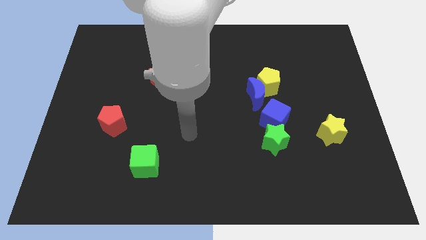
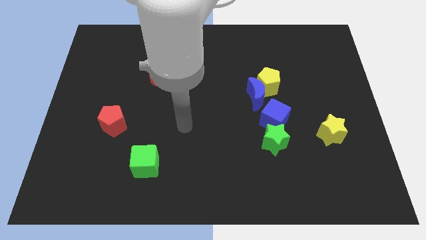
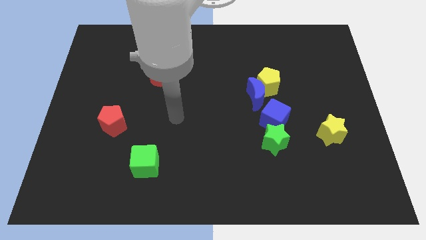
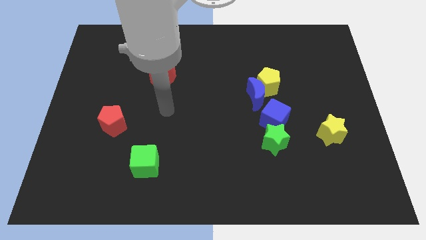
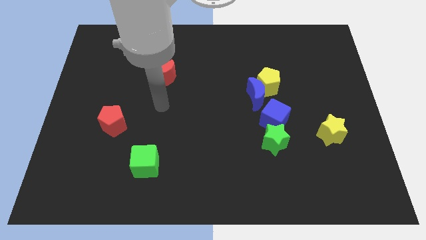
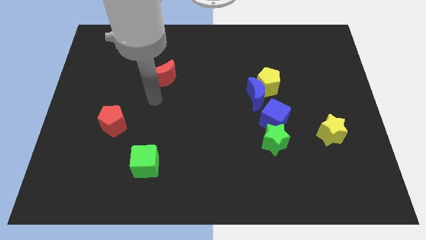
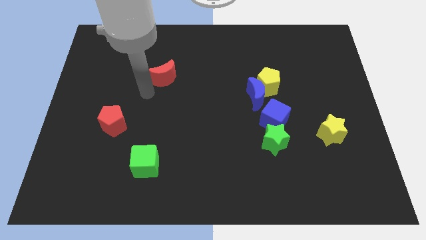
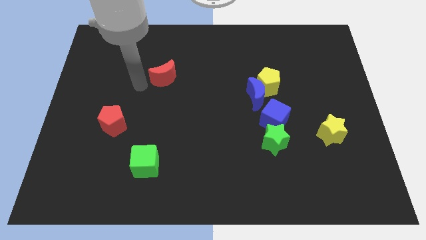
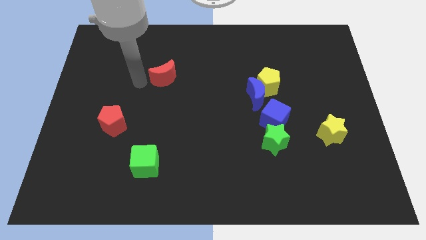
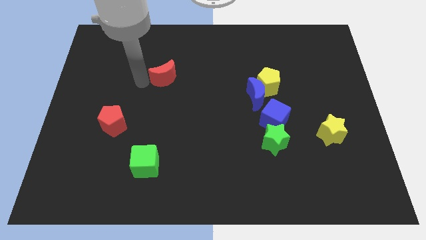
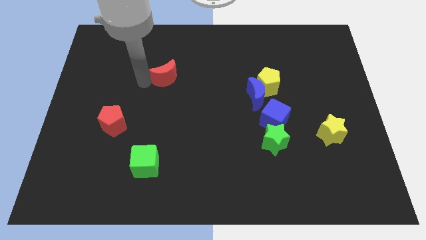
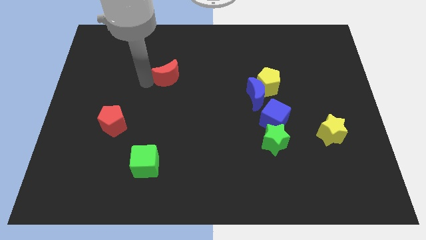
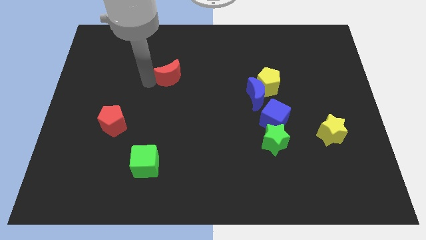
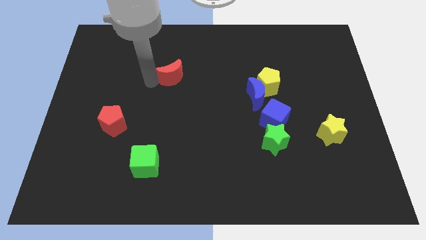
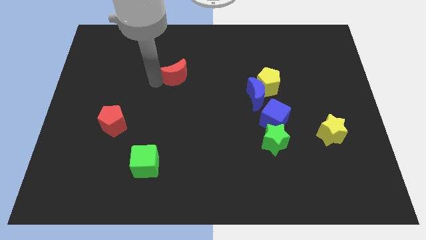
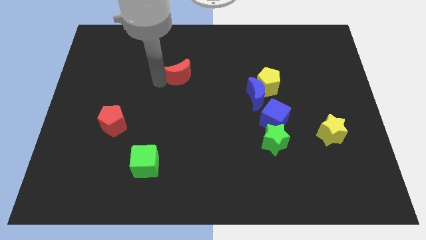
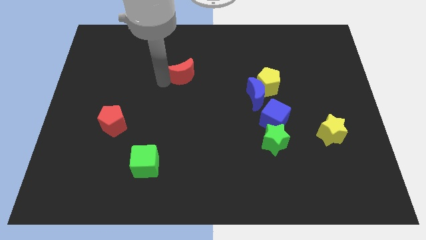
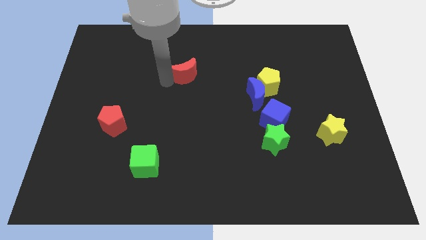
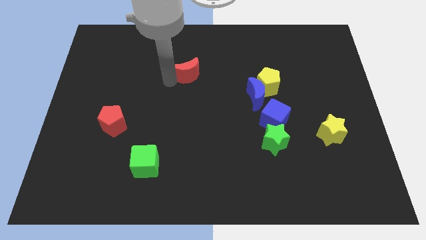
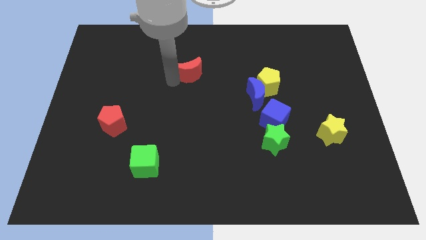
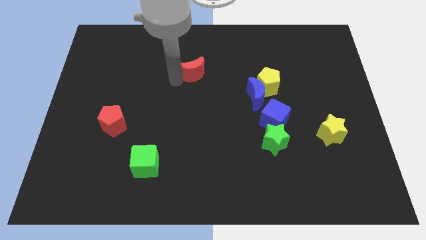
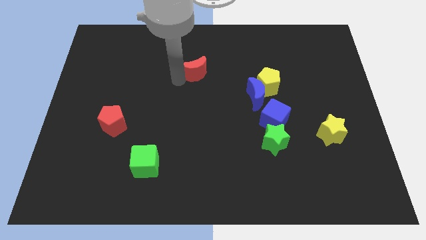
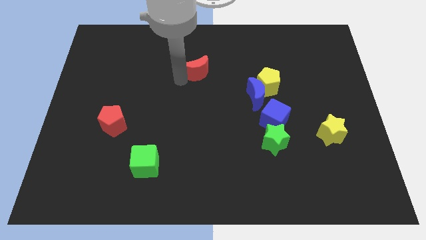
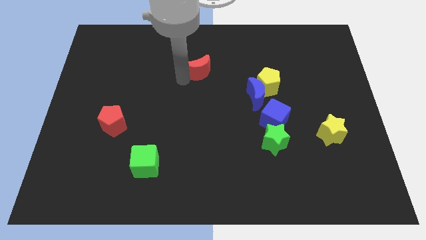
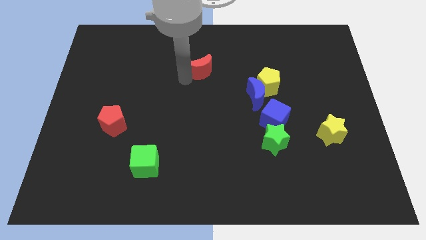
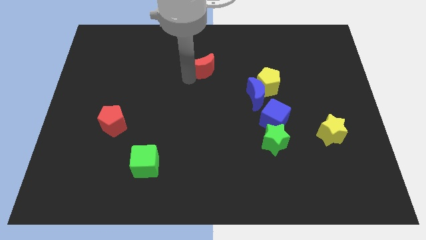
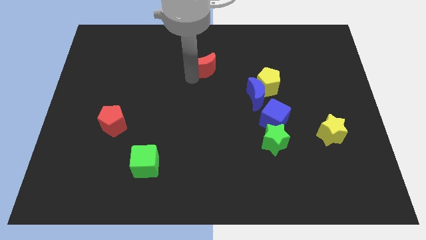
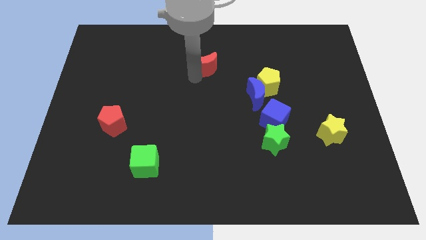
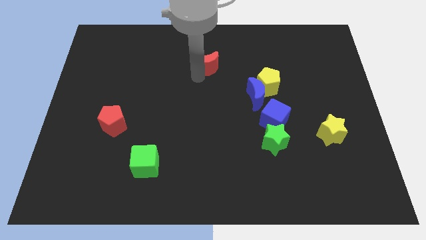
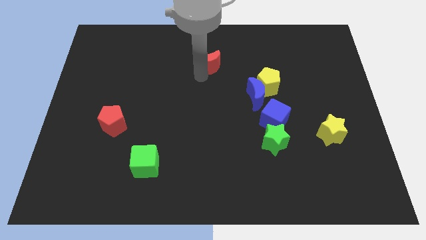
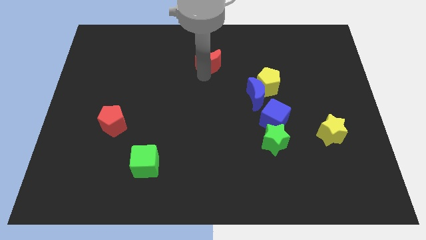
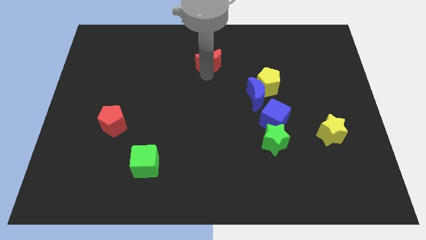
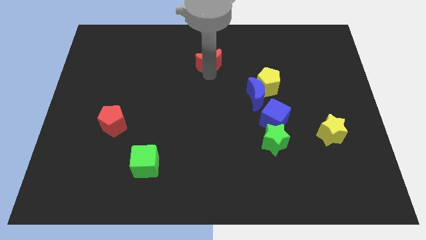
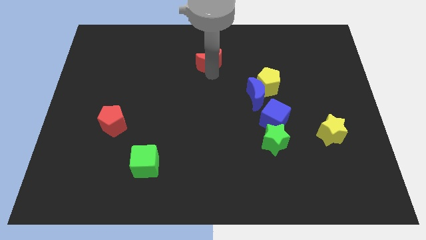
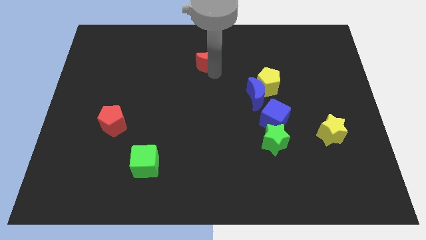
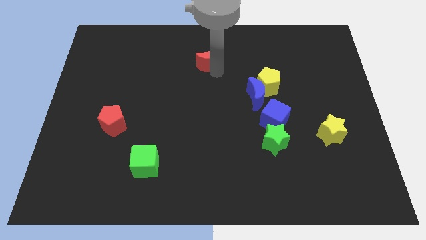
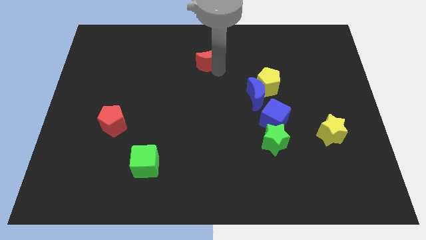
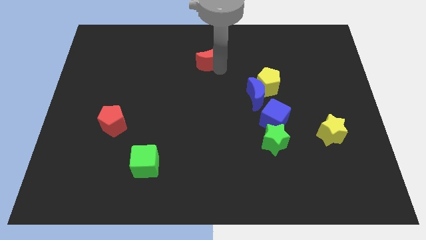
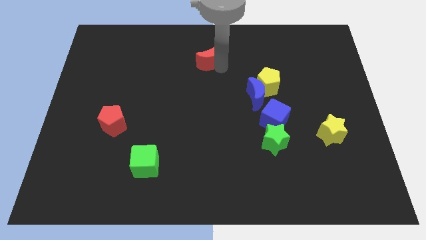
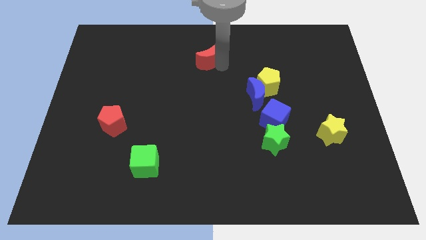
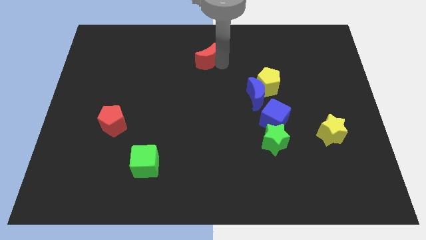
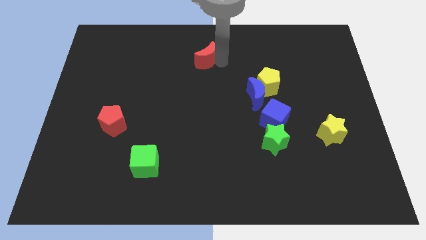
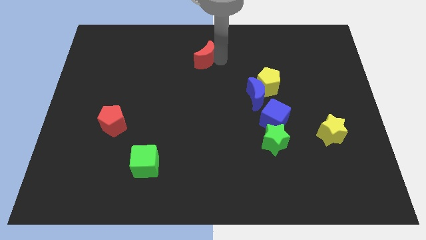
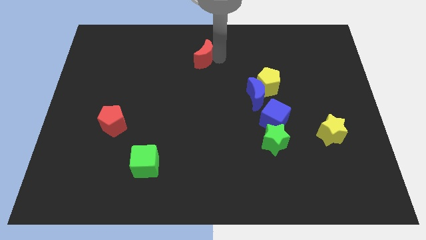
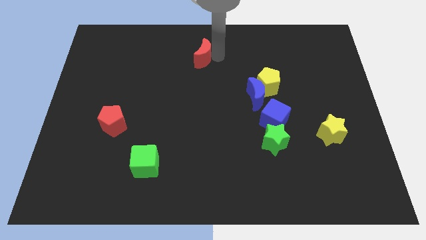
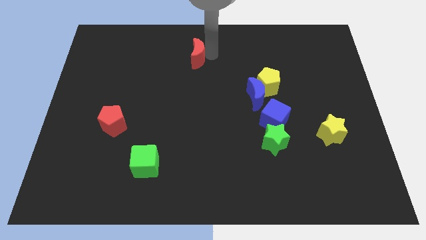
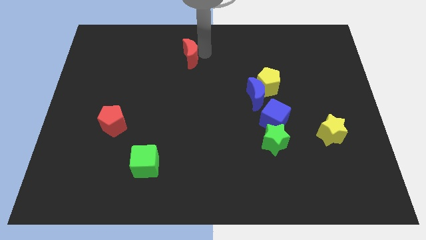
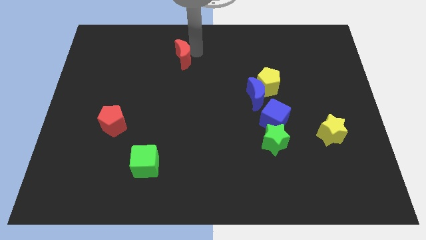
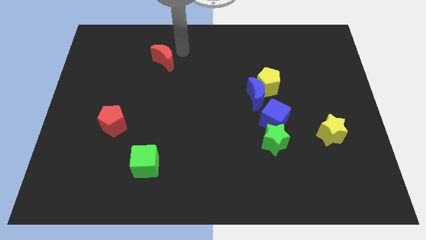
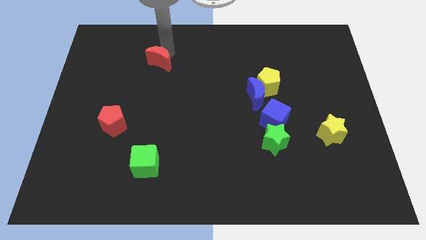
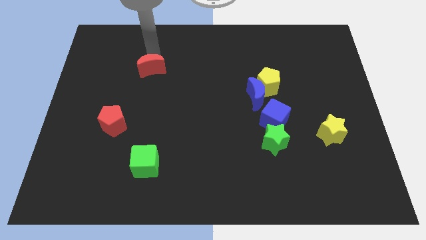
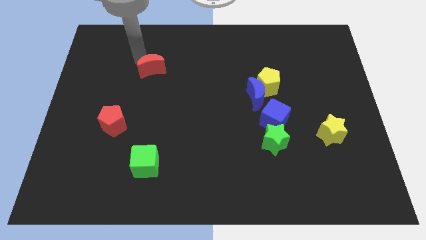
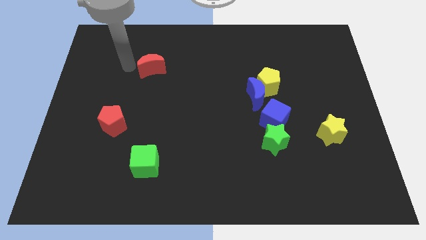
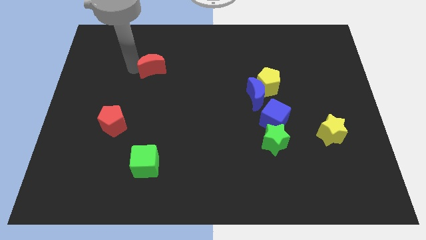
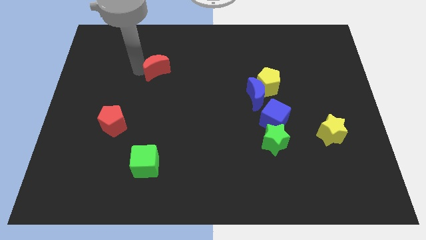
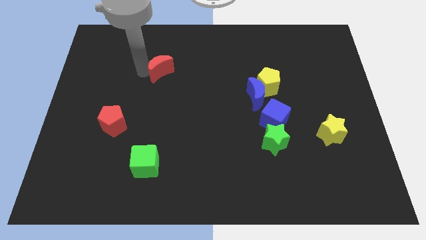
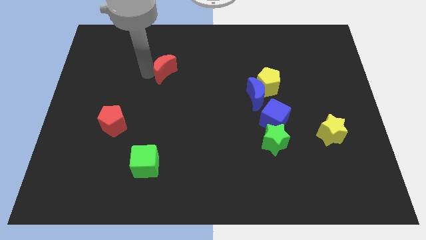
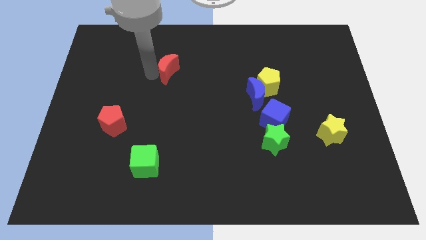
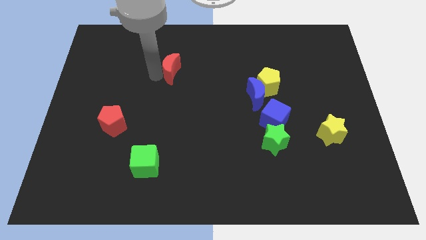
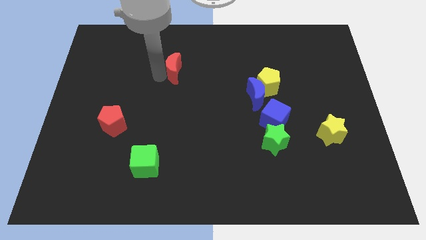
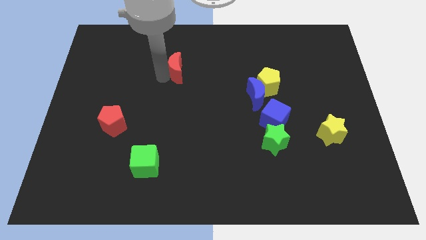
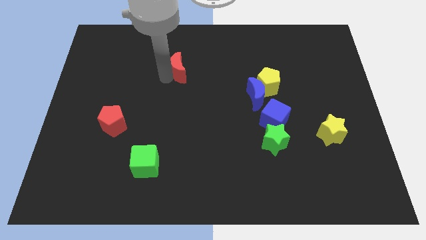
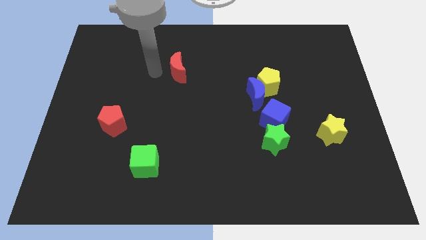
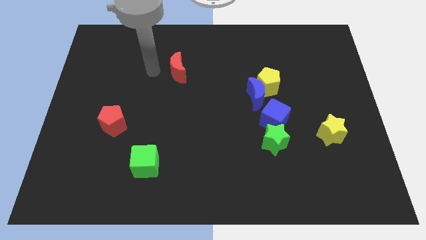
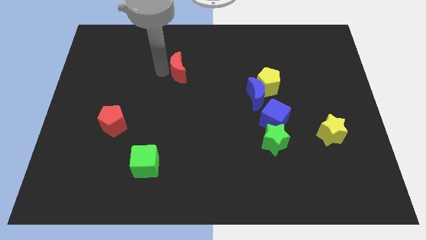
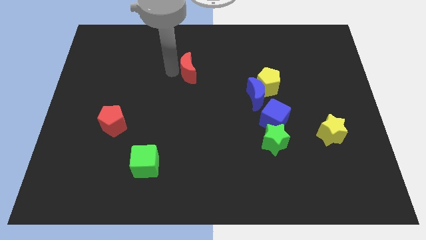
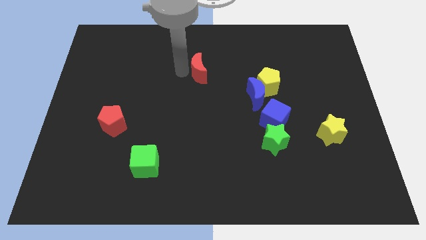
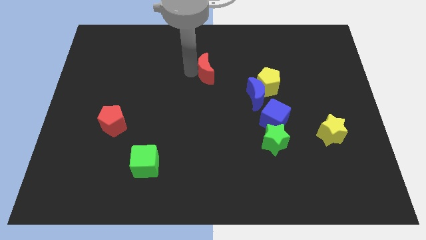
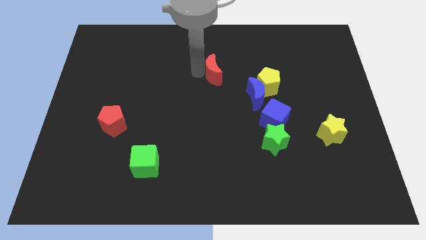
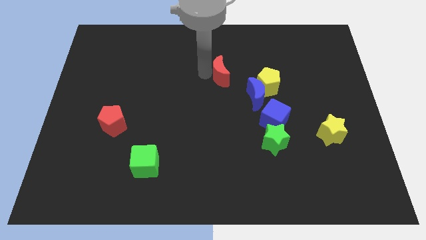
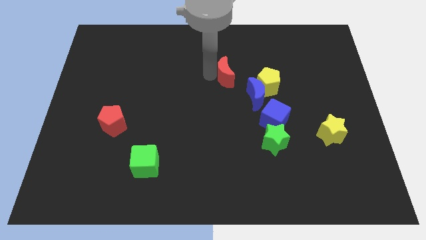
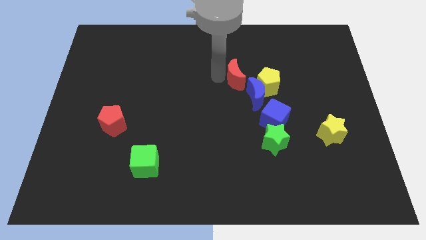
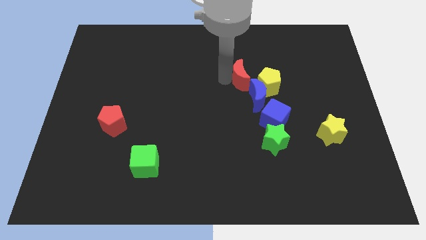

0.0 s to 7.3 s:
put the red moon above the blue moon
